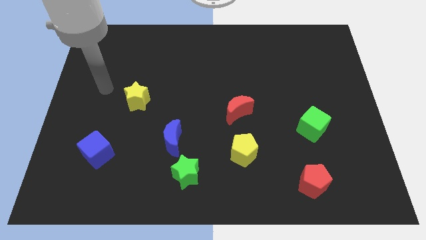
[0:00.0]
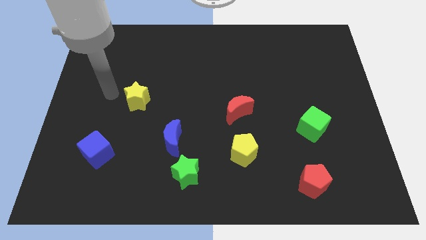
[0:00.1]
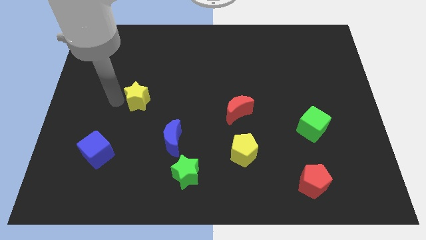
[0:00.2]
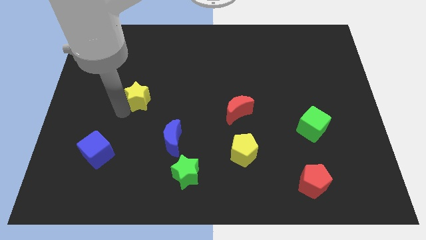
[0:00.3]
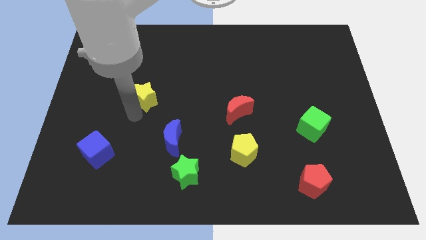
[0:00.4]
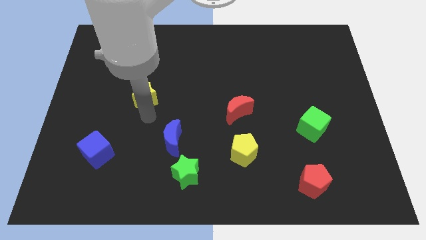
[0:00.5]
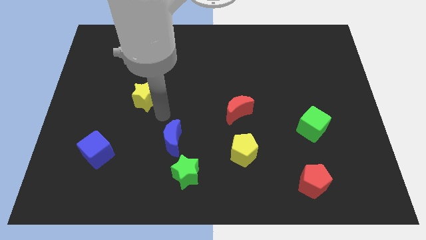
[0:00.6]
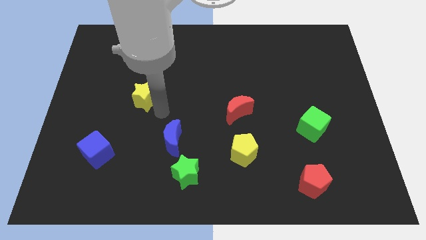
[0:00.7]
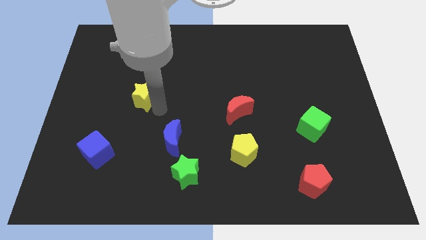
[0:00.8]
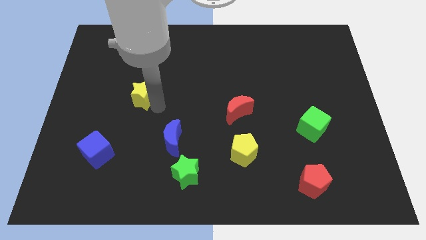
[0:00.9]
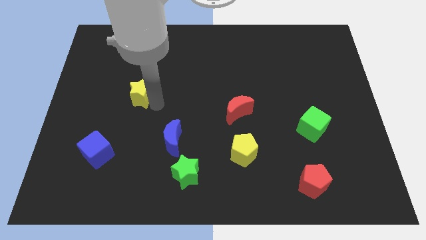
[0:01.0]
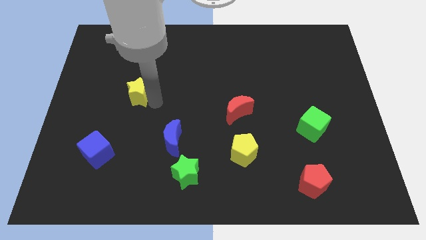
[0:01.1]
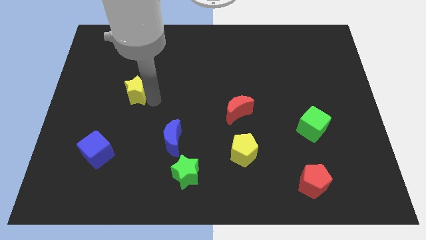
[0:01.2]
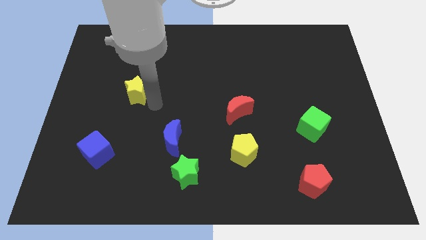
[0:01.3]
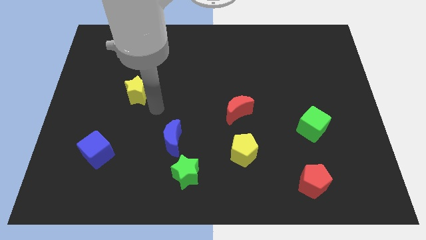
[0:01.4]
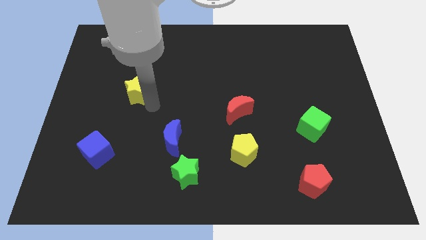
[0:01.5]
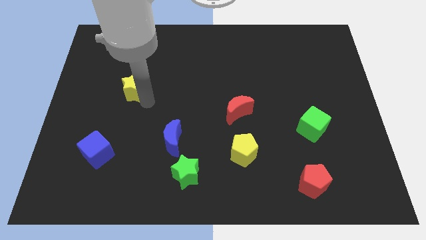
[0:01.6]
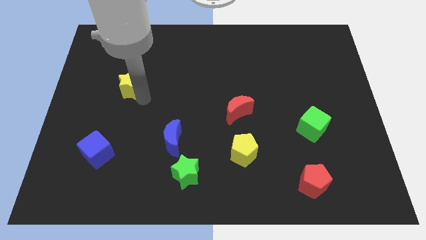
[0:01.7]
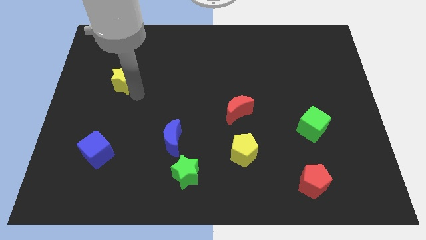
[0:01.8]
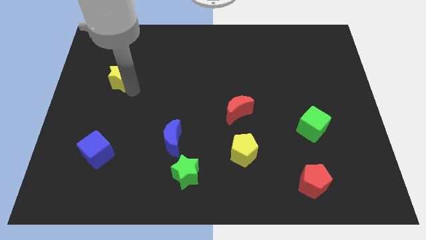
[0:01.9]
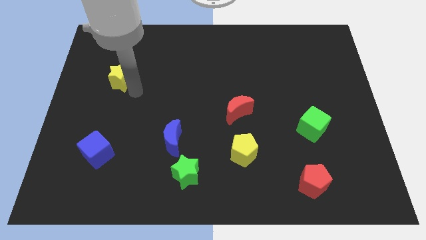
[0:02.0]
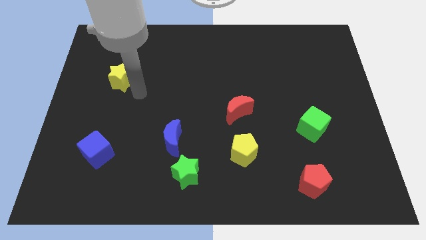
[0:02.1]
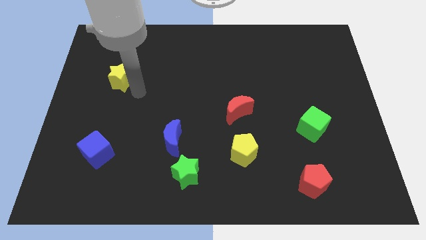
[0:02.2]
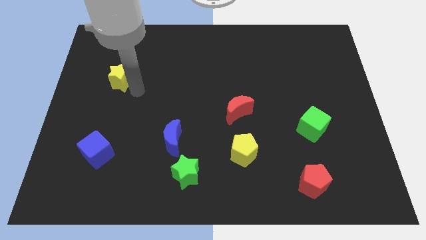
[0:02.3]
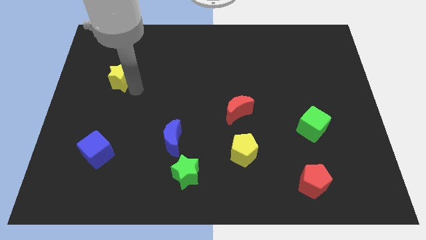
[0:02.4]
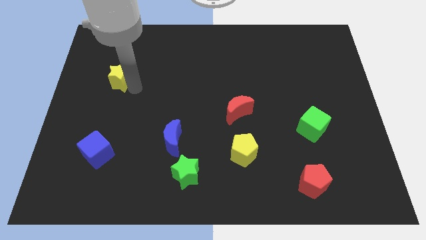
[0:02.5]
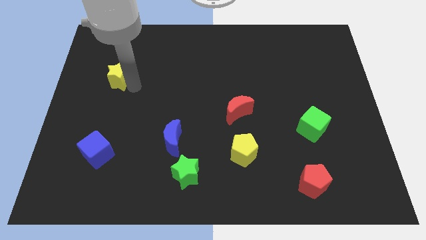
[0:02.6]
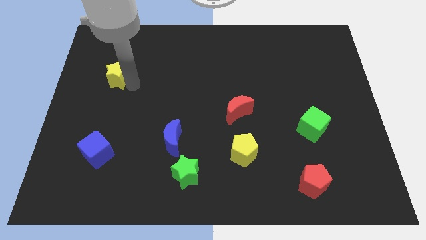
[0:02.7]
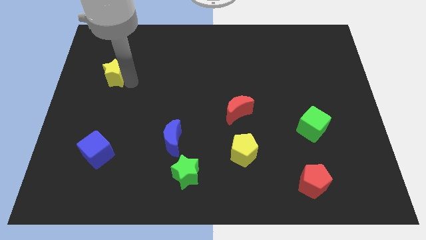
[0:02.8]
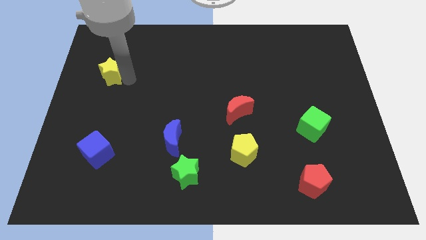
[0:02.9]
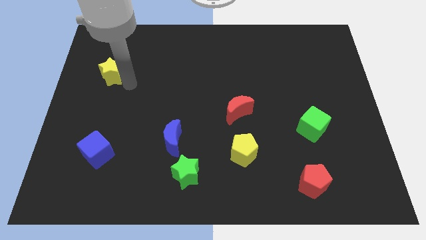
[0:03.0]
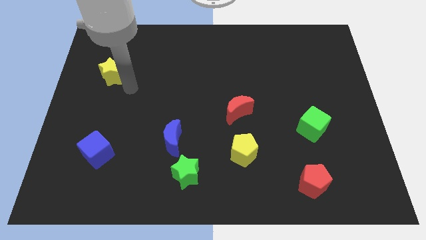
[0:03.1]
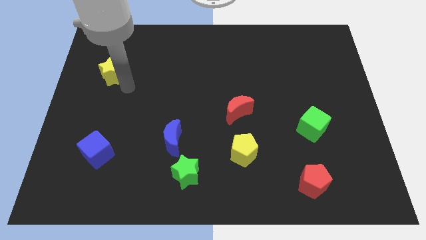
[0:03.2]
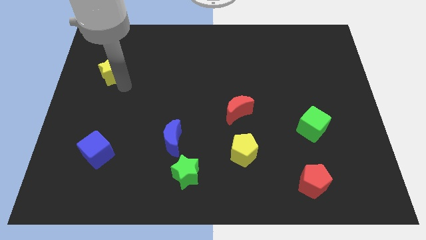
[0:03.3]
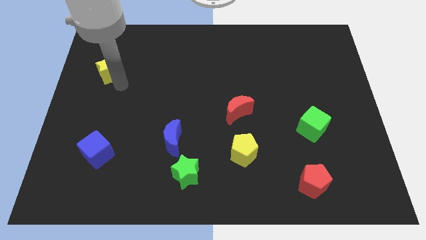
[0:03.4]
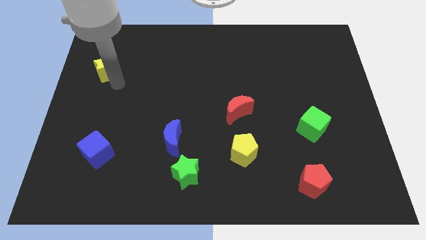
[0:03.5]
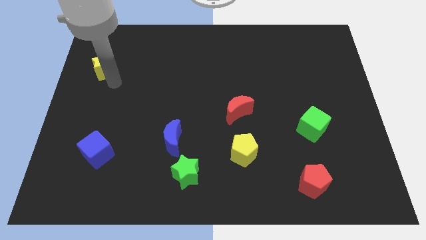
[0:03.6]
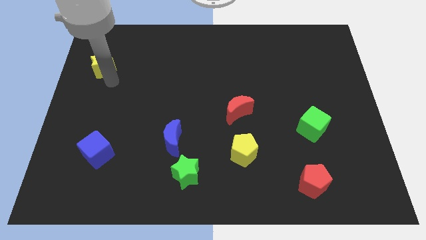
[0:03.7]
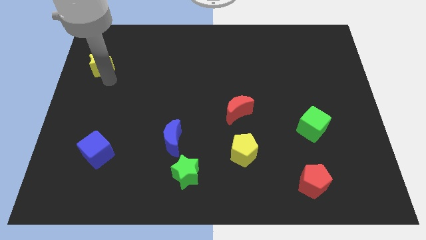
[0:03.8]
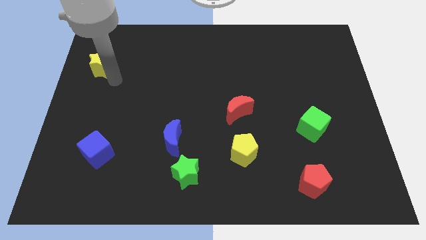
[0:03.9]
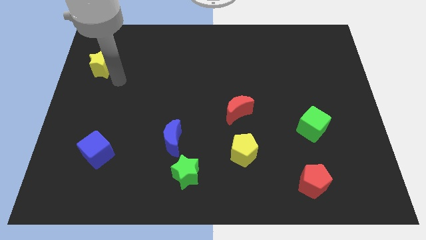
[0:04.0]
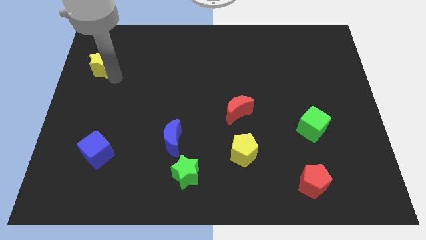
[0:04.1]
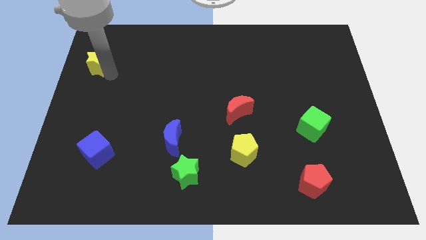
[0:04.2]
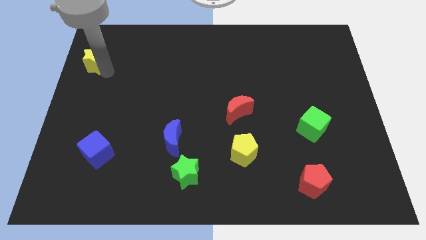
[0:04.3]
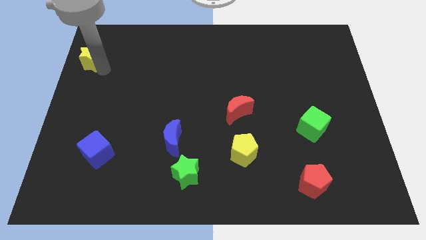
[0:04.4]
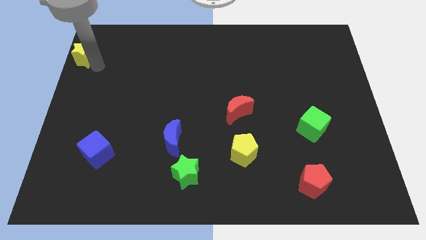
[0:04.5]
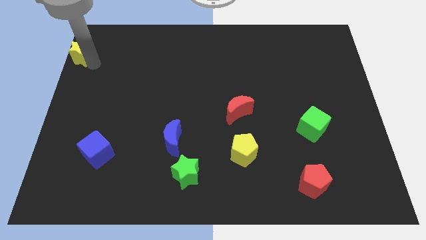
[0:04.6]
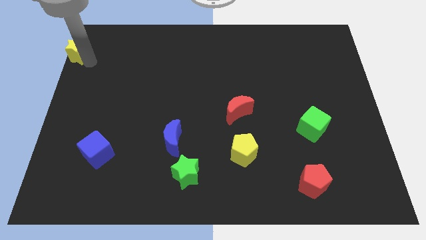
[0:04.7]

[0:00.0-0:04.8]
put the yellow star to the top left

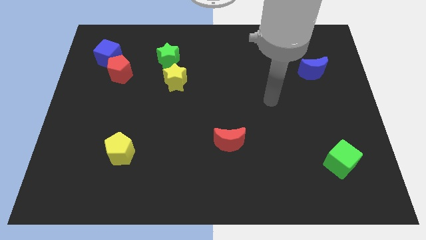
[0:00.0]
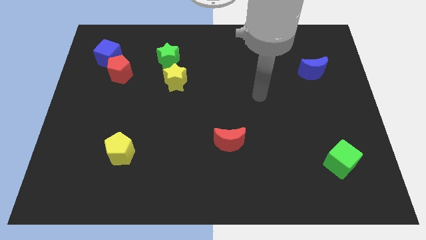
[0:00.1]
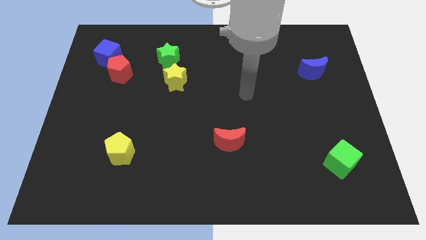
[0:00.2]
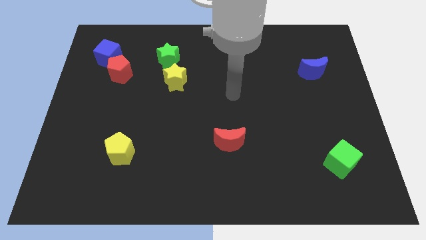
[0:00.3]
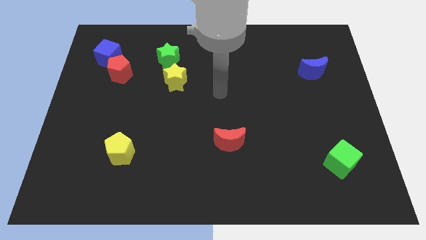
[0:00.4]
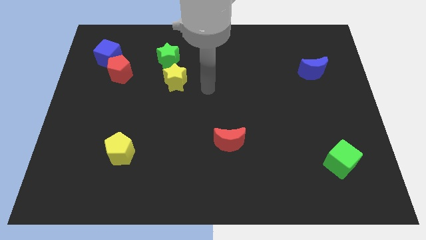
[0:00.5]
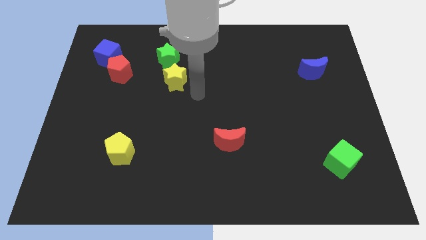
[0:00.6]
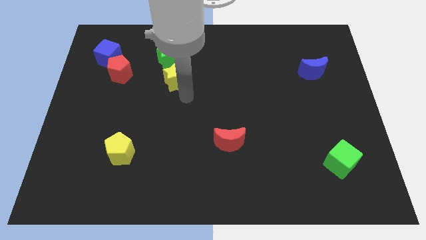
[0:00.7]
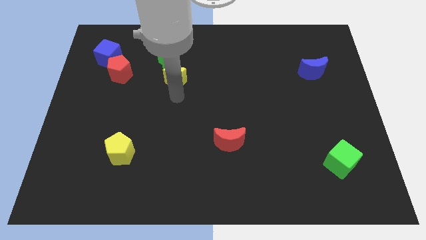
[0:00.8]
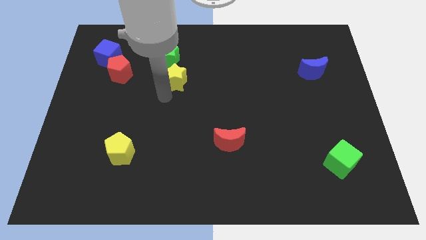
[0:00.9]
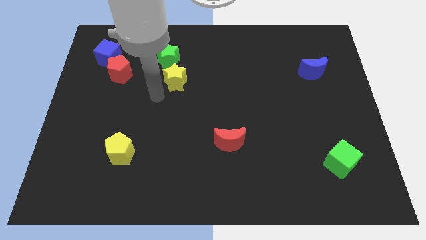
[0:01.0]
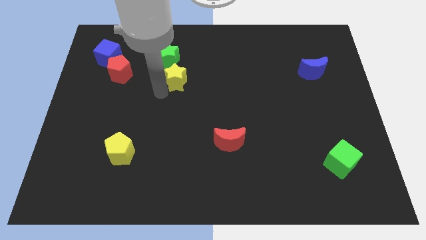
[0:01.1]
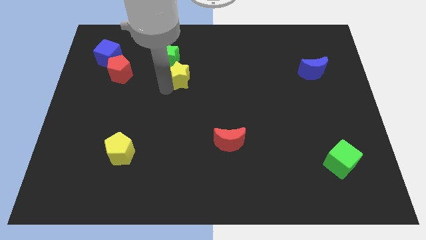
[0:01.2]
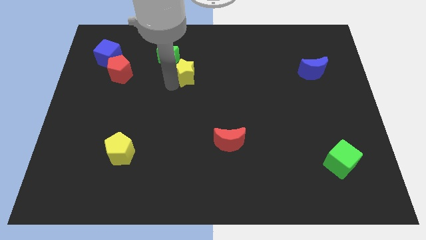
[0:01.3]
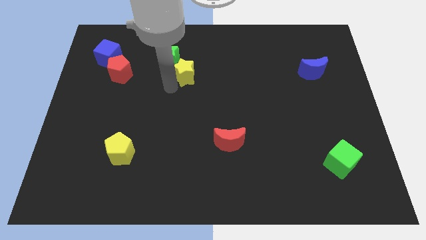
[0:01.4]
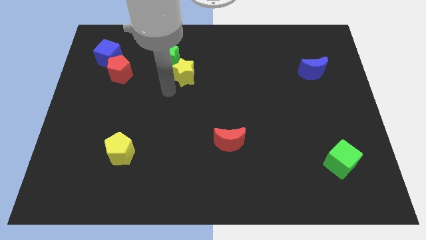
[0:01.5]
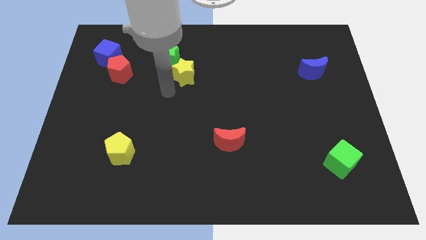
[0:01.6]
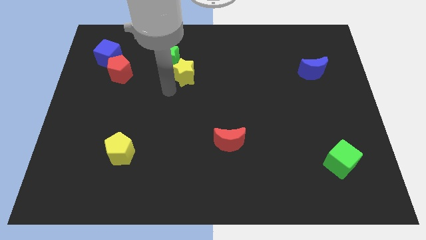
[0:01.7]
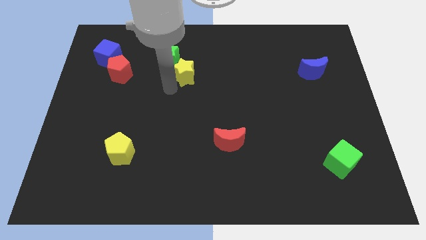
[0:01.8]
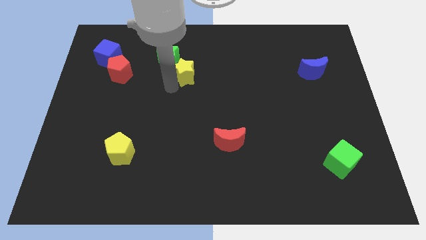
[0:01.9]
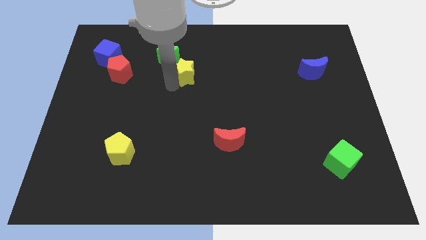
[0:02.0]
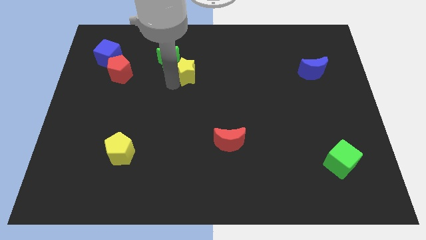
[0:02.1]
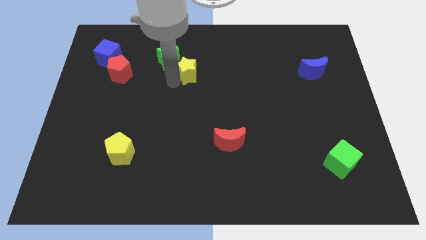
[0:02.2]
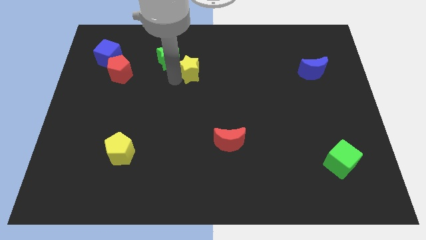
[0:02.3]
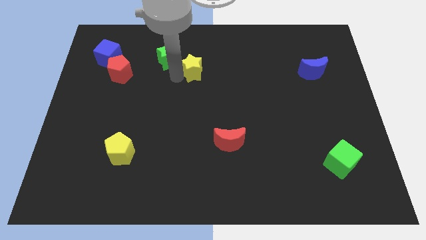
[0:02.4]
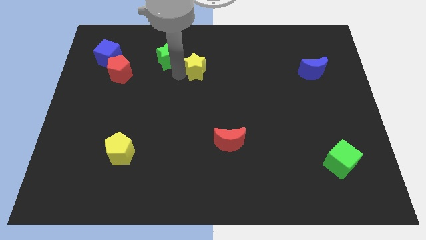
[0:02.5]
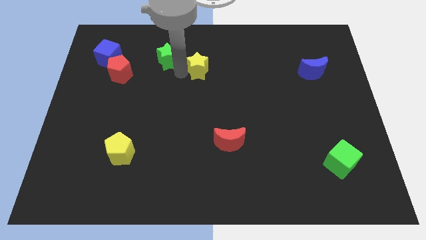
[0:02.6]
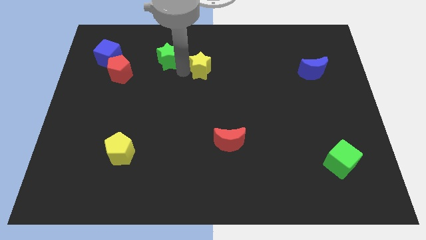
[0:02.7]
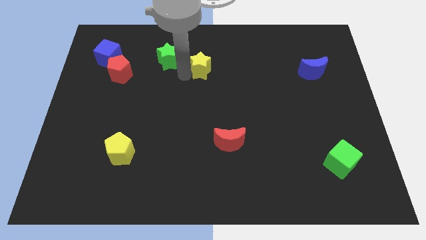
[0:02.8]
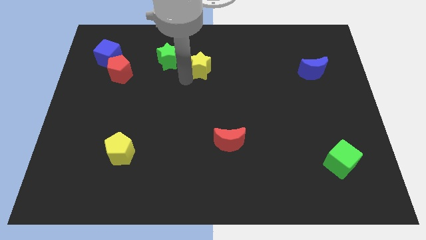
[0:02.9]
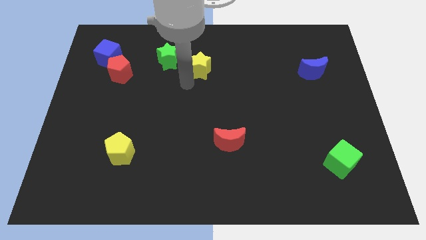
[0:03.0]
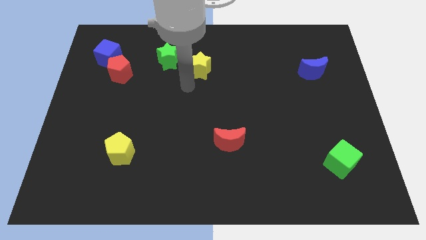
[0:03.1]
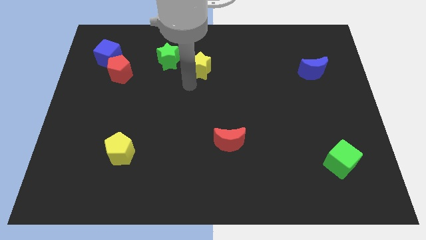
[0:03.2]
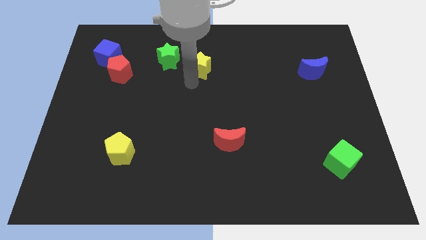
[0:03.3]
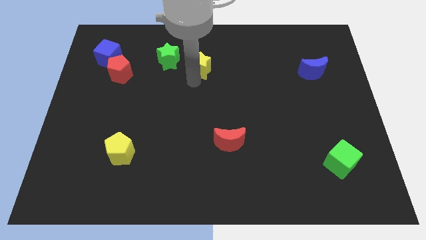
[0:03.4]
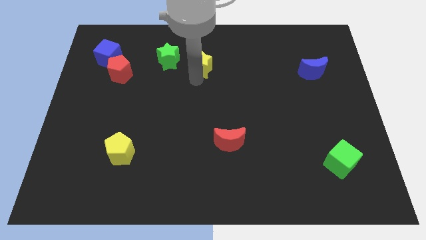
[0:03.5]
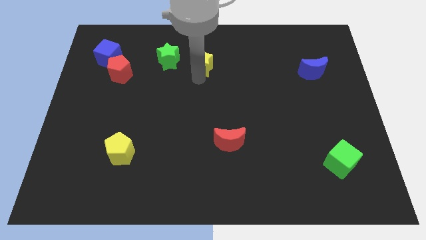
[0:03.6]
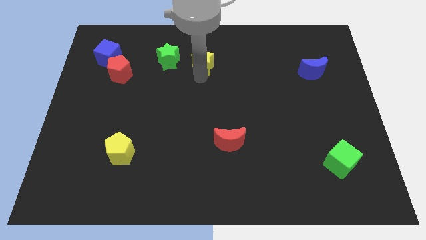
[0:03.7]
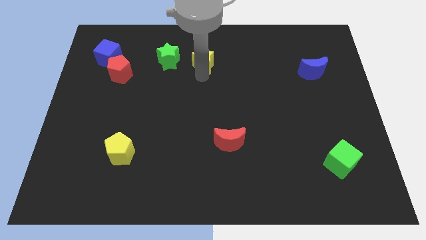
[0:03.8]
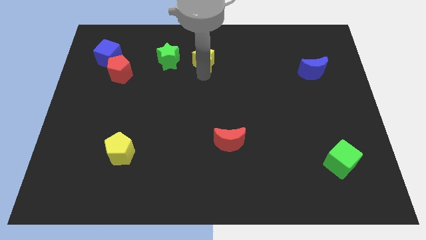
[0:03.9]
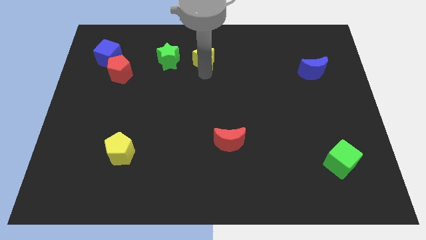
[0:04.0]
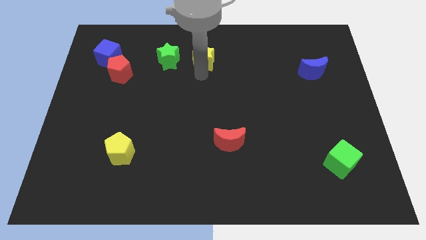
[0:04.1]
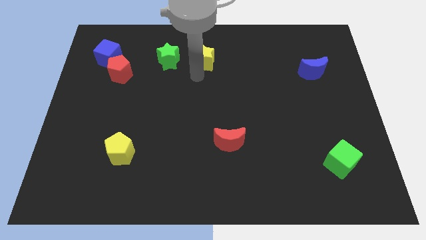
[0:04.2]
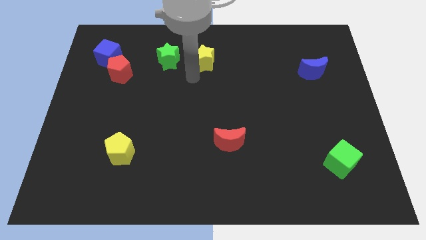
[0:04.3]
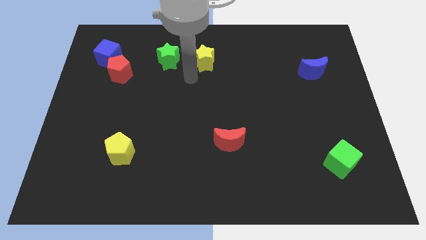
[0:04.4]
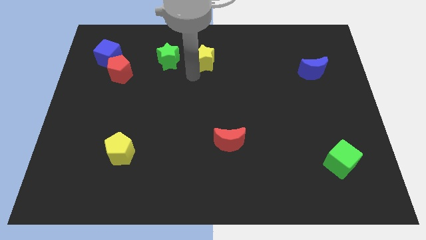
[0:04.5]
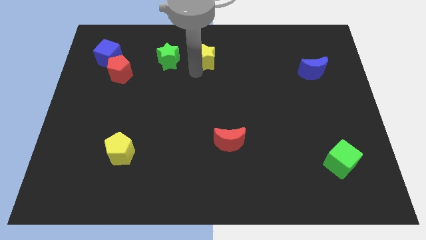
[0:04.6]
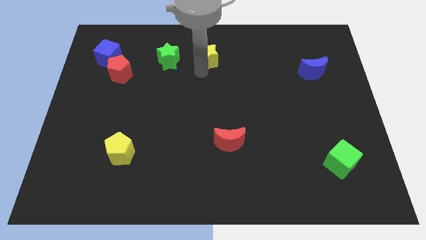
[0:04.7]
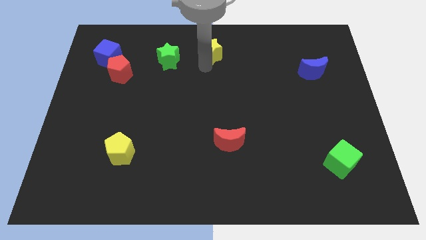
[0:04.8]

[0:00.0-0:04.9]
move the yellow star to the top side
